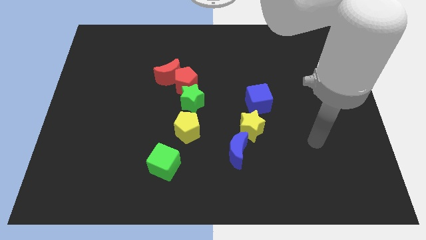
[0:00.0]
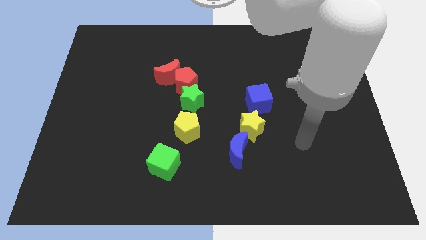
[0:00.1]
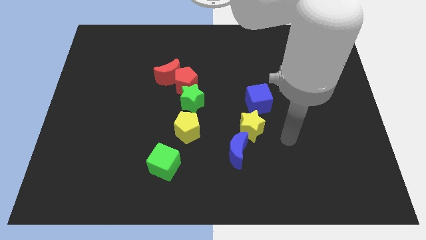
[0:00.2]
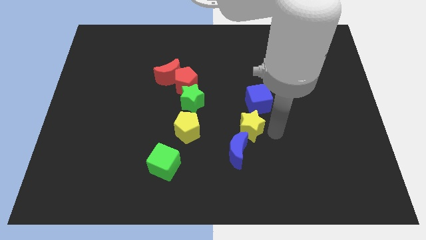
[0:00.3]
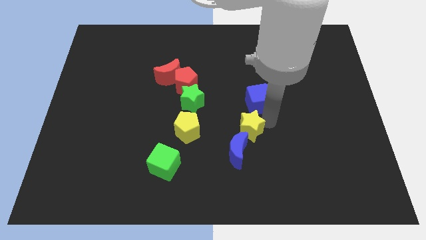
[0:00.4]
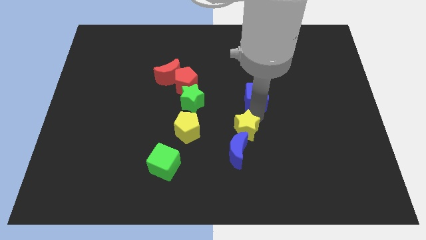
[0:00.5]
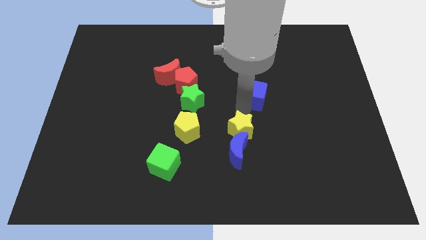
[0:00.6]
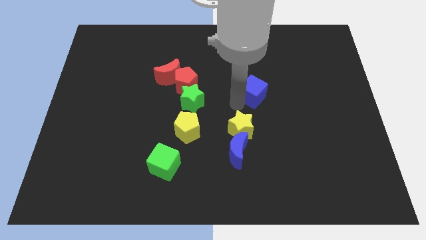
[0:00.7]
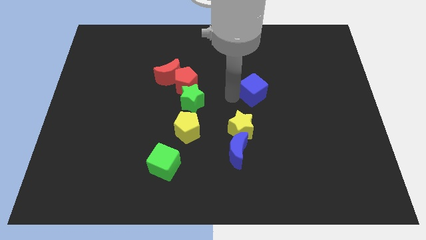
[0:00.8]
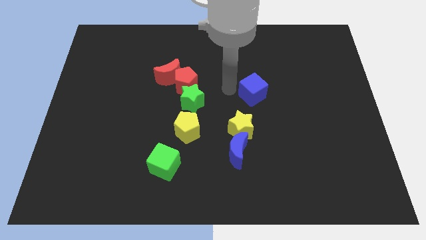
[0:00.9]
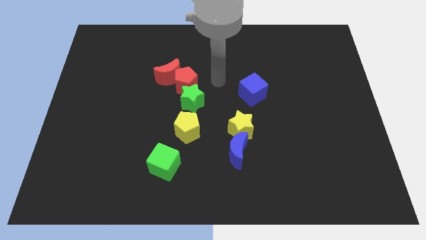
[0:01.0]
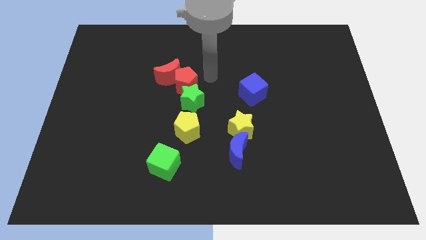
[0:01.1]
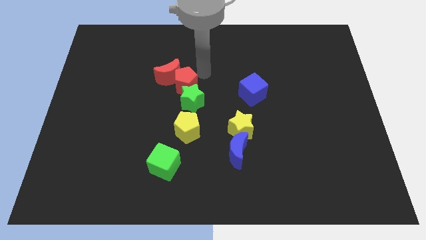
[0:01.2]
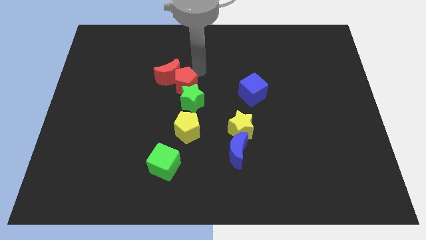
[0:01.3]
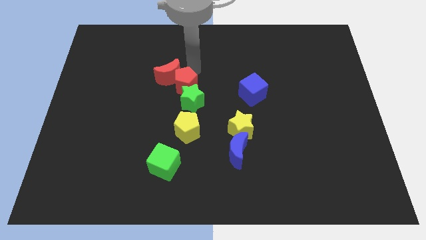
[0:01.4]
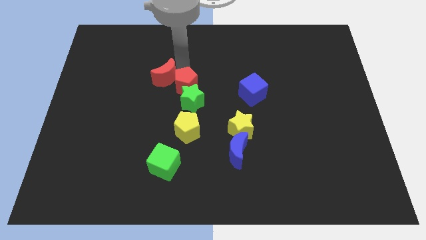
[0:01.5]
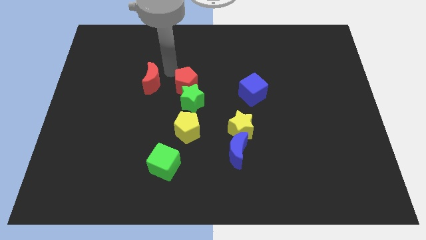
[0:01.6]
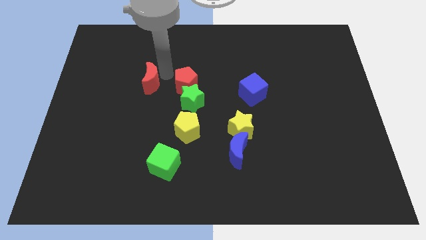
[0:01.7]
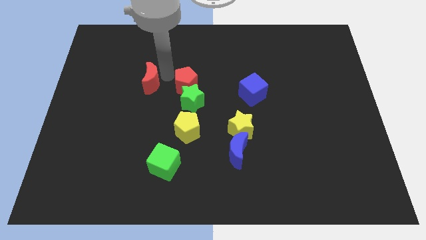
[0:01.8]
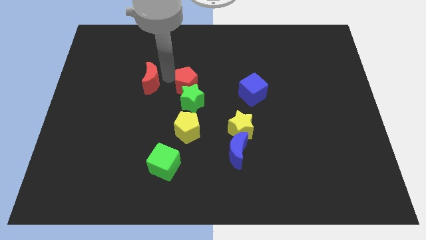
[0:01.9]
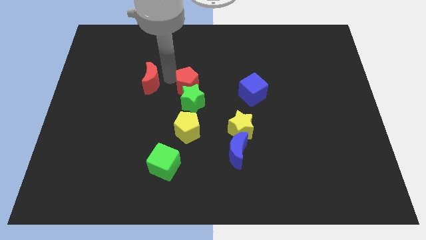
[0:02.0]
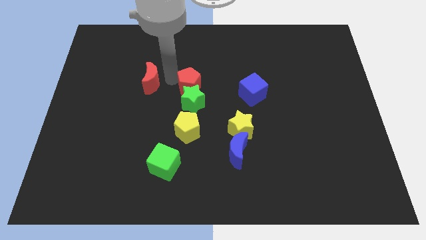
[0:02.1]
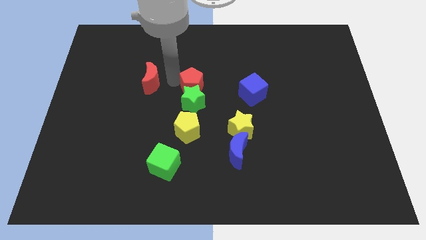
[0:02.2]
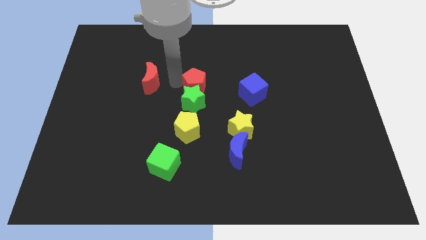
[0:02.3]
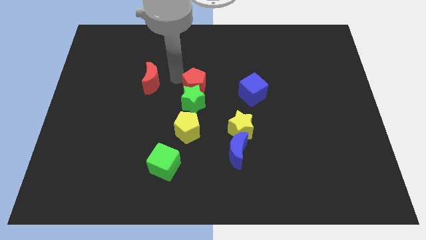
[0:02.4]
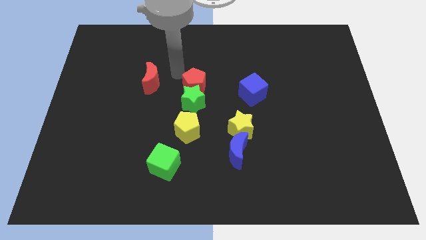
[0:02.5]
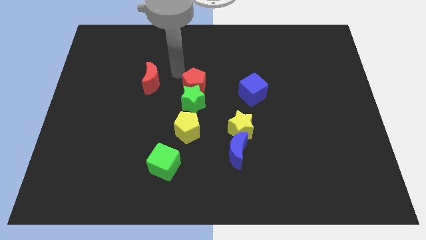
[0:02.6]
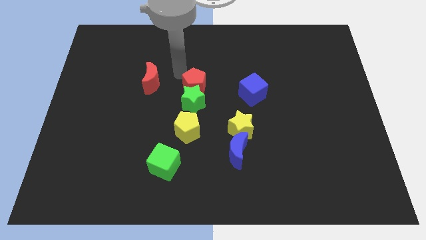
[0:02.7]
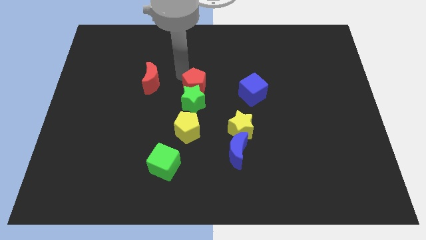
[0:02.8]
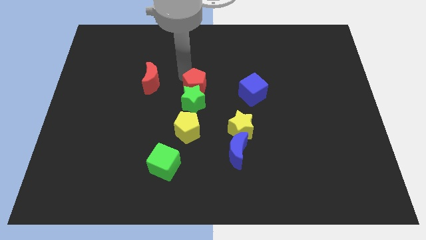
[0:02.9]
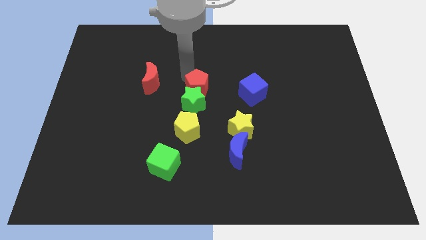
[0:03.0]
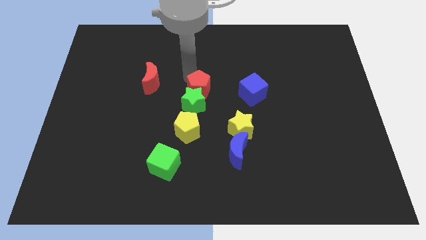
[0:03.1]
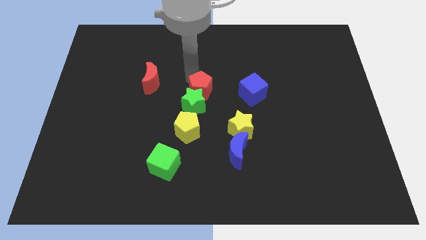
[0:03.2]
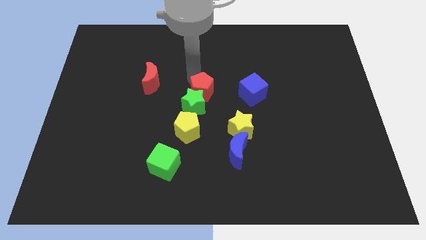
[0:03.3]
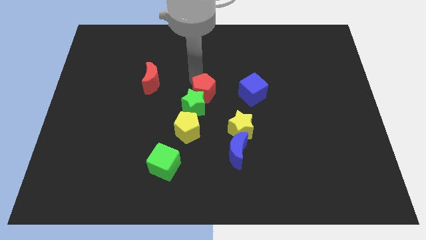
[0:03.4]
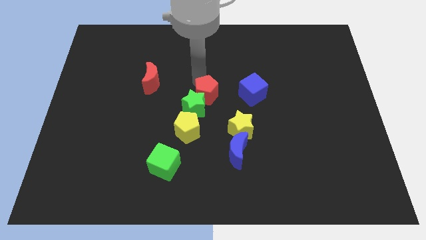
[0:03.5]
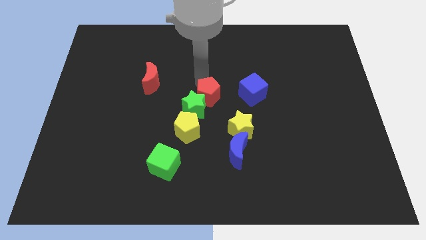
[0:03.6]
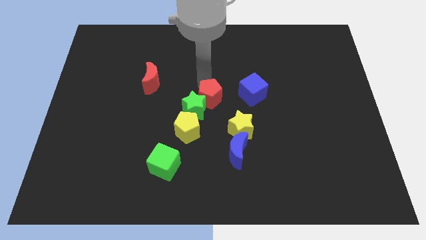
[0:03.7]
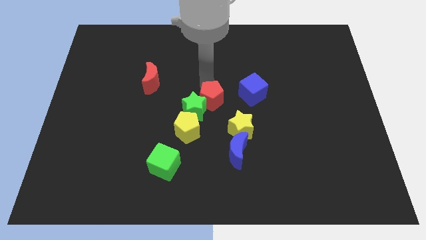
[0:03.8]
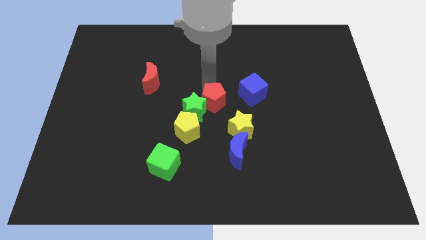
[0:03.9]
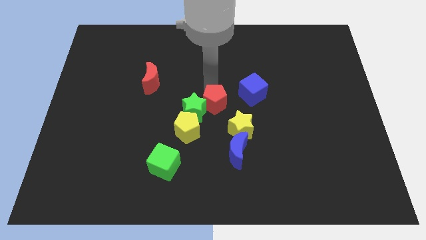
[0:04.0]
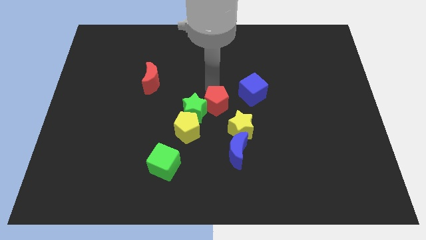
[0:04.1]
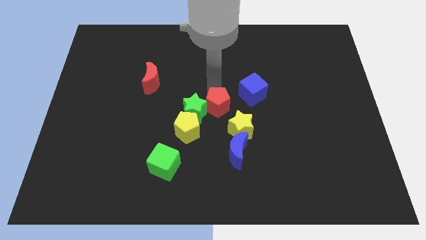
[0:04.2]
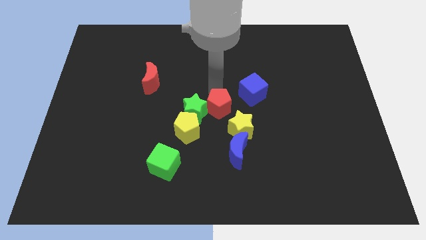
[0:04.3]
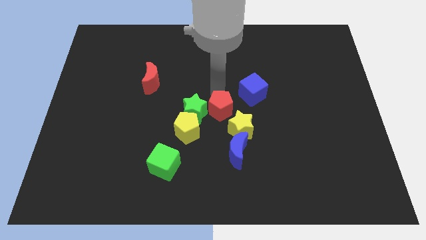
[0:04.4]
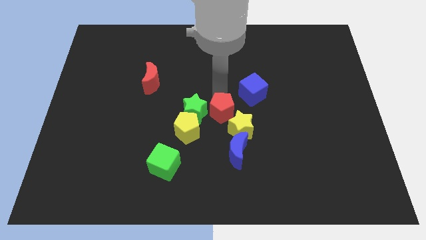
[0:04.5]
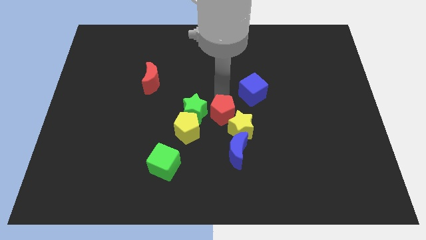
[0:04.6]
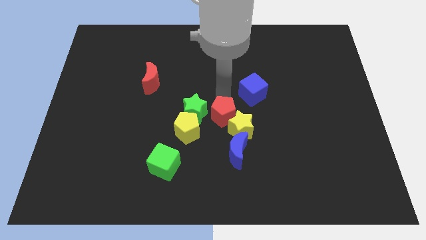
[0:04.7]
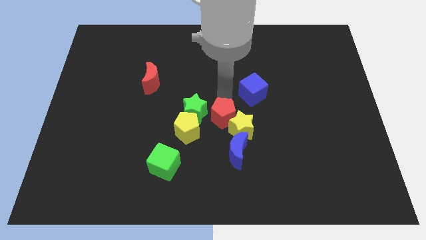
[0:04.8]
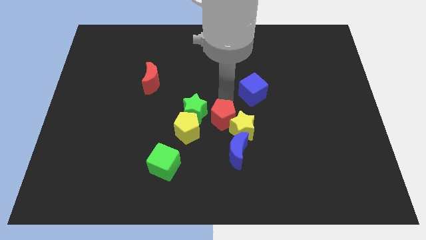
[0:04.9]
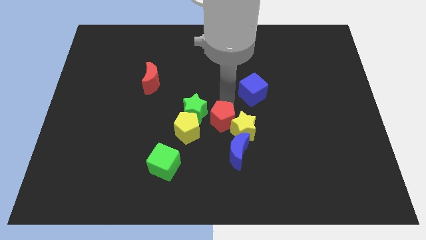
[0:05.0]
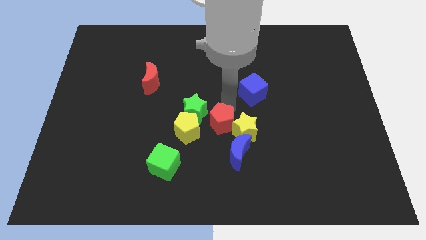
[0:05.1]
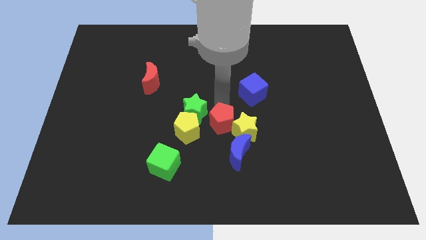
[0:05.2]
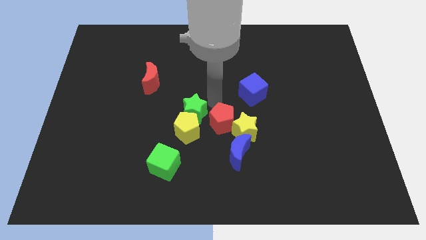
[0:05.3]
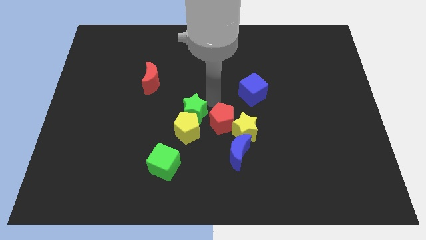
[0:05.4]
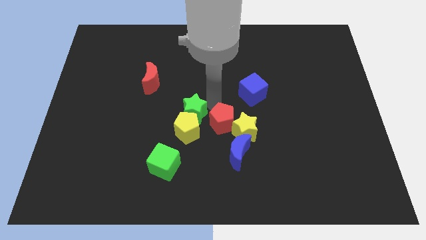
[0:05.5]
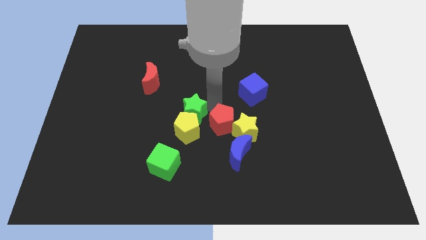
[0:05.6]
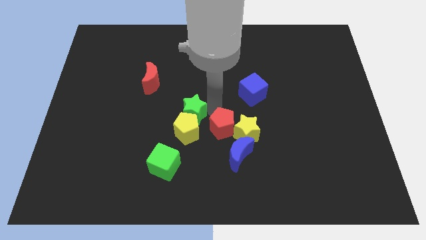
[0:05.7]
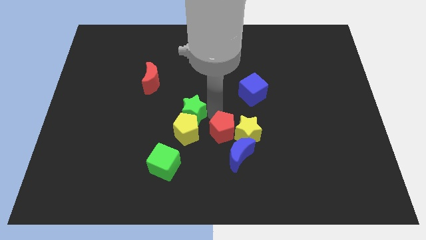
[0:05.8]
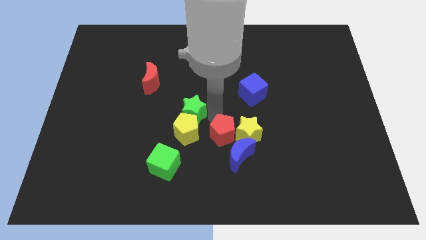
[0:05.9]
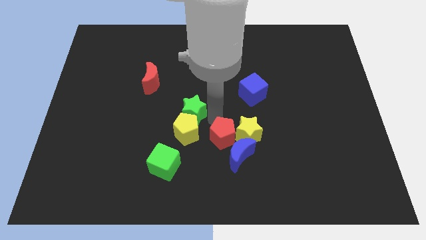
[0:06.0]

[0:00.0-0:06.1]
slide the red pentagon towards the blue moon

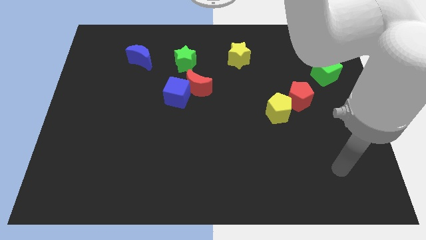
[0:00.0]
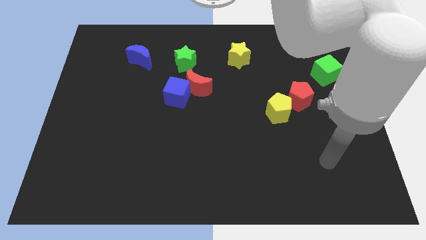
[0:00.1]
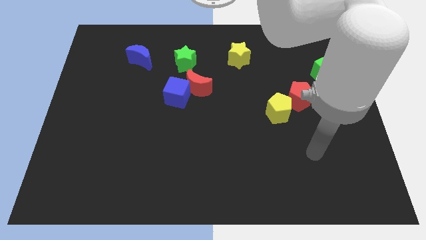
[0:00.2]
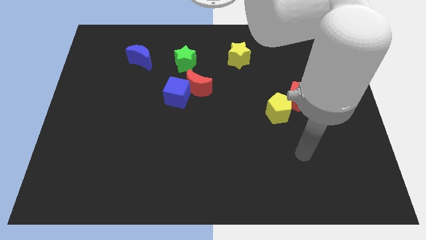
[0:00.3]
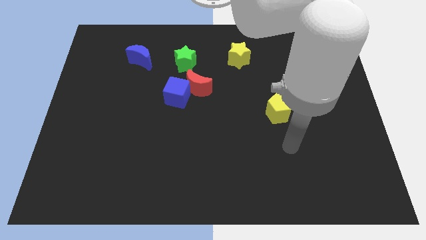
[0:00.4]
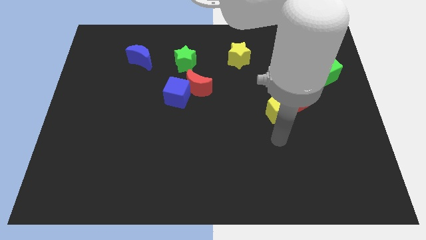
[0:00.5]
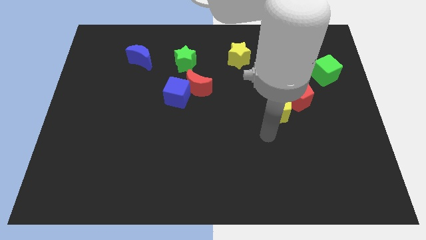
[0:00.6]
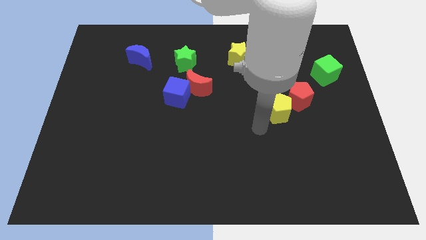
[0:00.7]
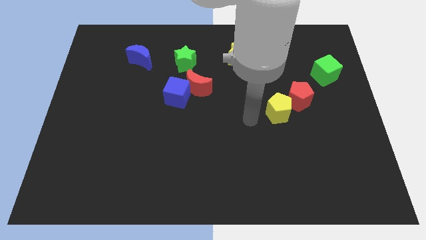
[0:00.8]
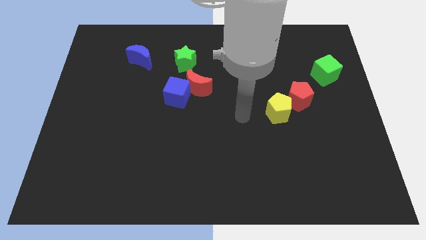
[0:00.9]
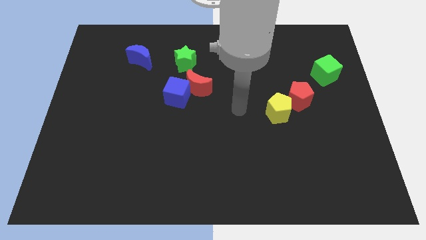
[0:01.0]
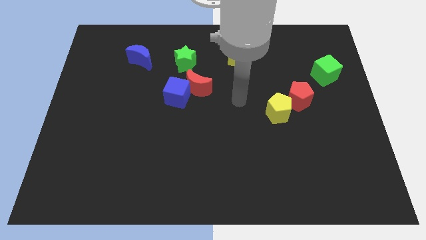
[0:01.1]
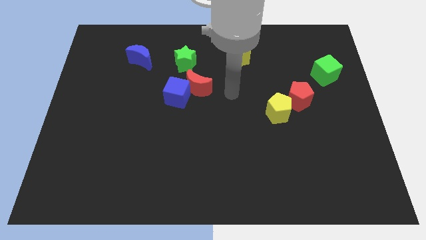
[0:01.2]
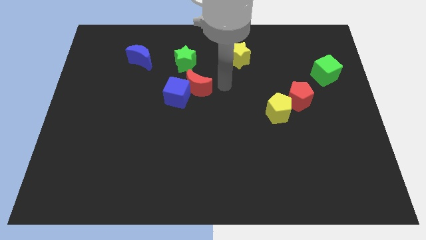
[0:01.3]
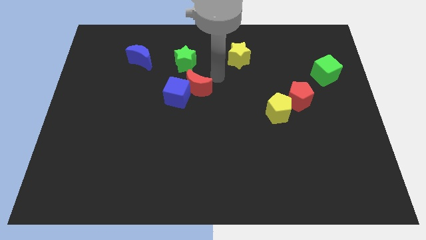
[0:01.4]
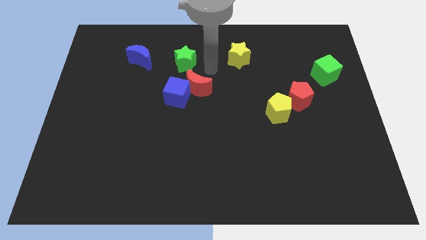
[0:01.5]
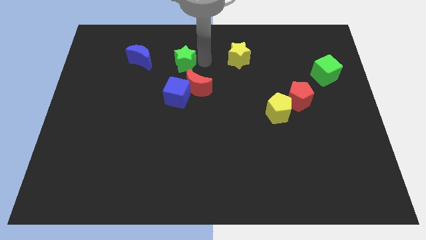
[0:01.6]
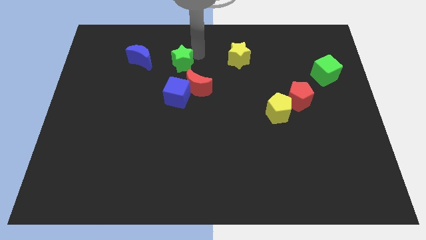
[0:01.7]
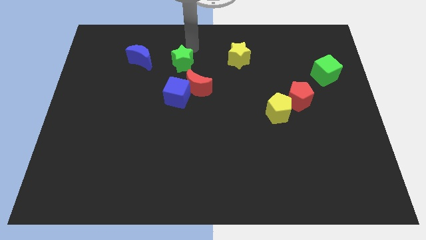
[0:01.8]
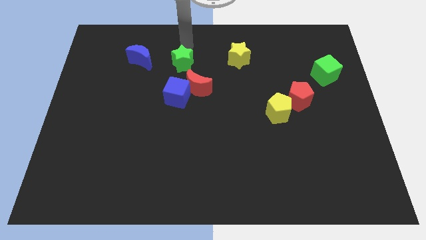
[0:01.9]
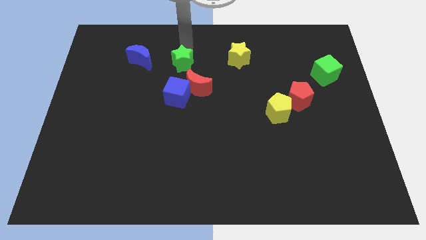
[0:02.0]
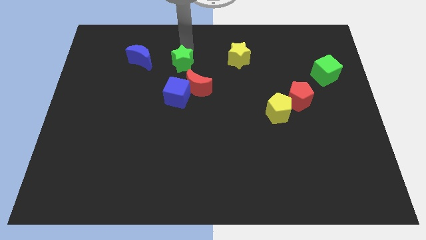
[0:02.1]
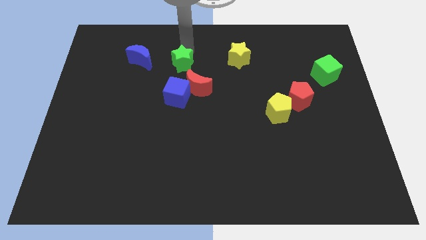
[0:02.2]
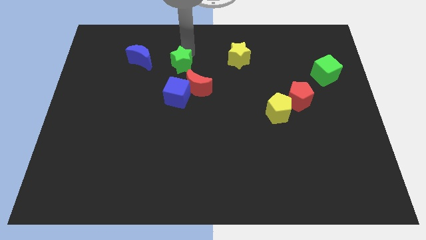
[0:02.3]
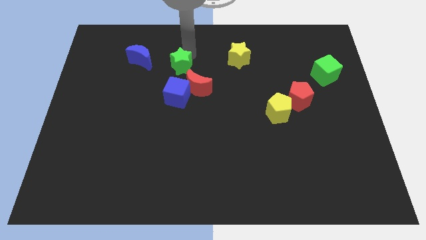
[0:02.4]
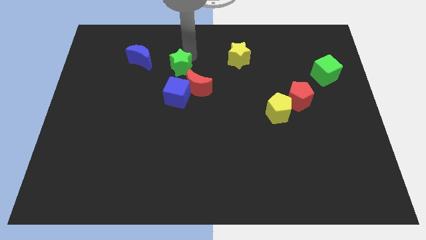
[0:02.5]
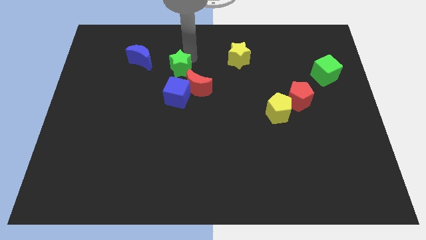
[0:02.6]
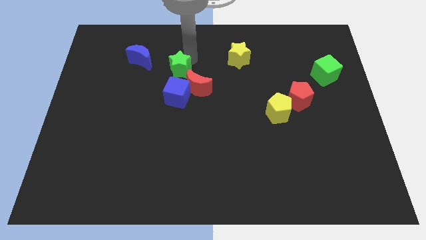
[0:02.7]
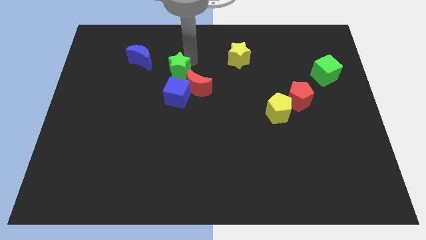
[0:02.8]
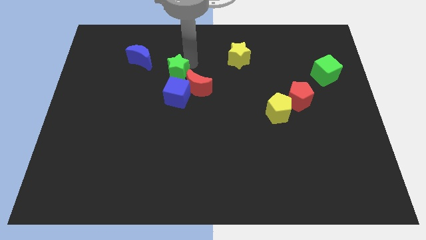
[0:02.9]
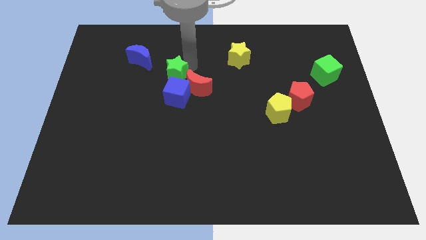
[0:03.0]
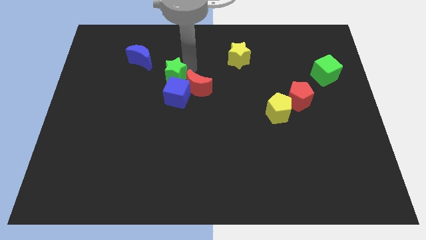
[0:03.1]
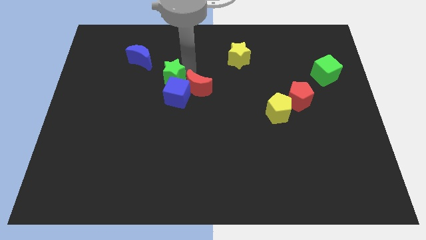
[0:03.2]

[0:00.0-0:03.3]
put the green star close to the blue cube
